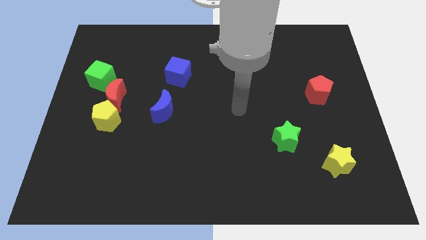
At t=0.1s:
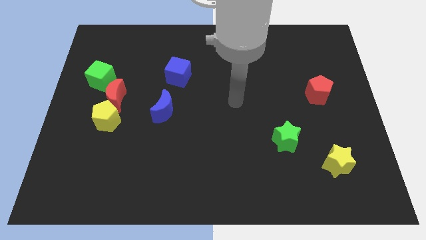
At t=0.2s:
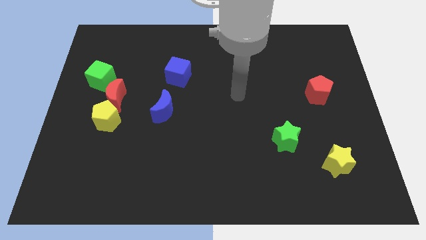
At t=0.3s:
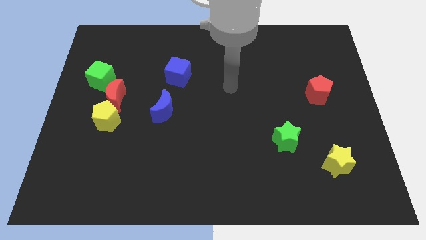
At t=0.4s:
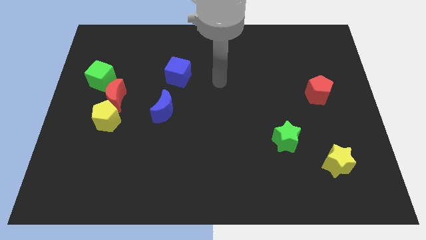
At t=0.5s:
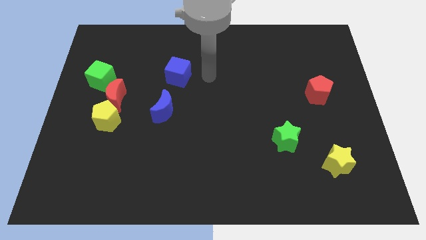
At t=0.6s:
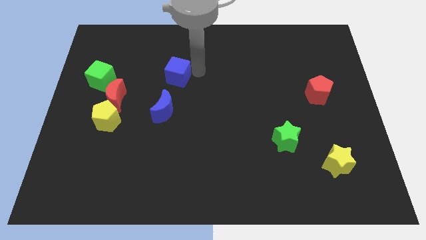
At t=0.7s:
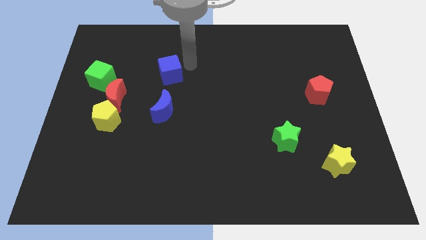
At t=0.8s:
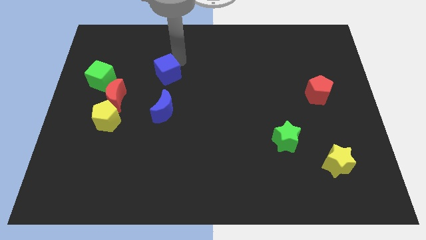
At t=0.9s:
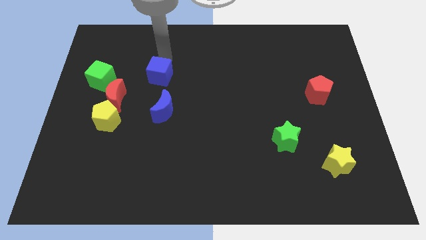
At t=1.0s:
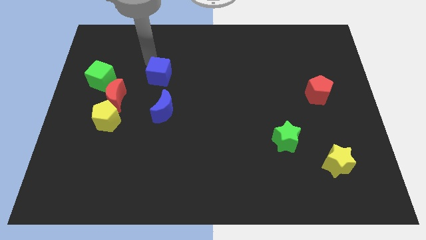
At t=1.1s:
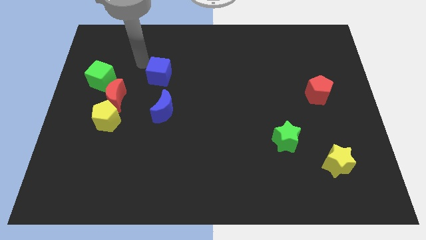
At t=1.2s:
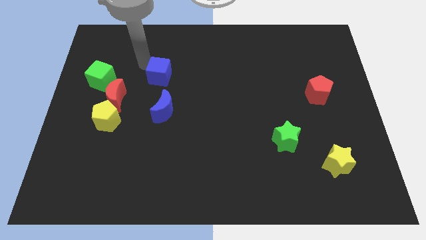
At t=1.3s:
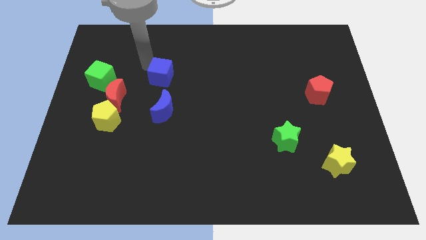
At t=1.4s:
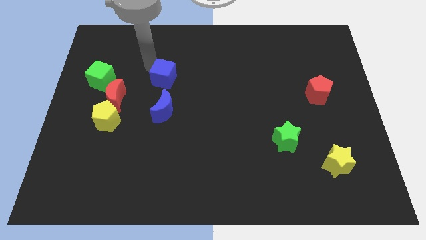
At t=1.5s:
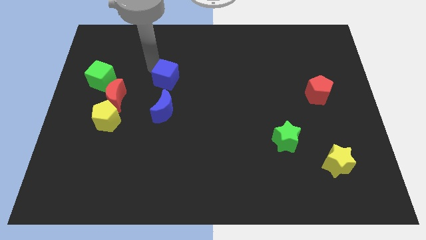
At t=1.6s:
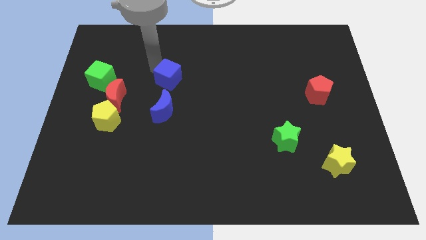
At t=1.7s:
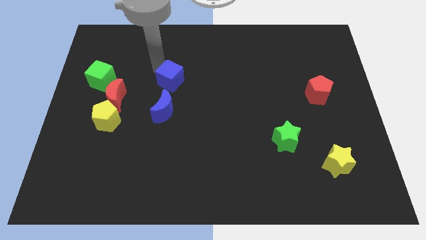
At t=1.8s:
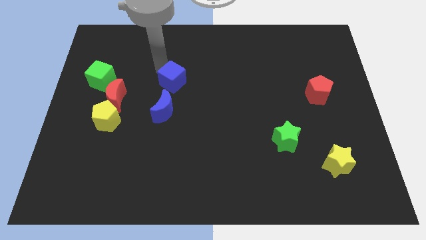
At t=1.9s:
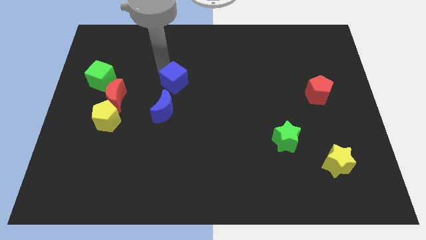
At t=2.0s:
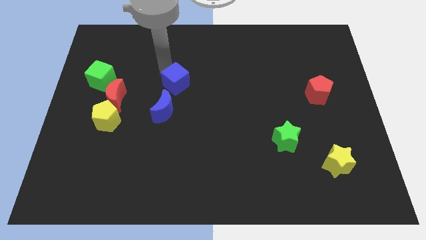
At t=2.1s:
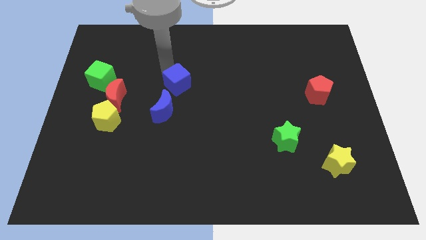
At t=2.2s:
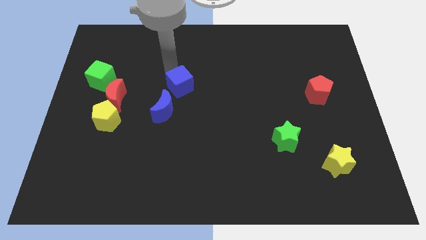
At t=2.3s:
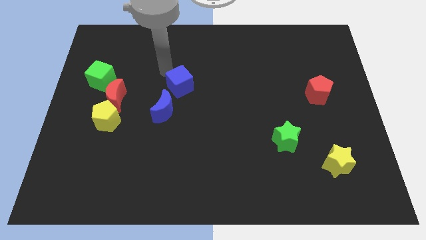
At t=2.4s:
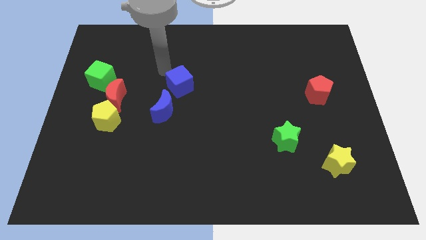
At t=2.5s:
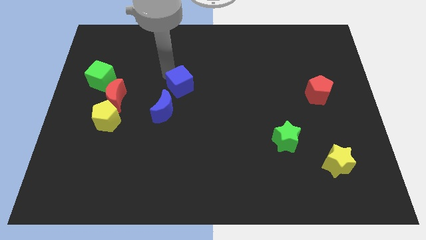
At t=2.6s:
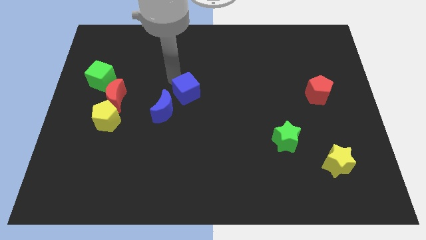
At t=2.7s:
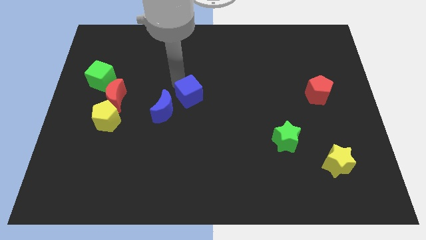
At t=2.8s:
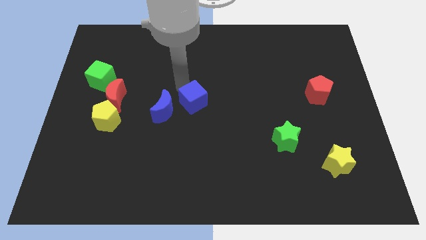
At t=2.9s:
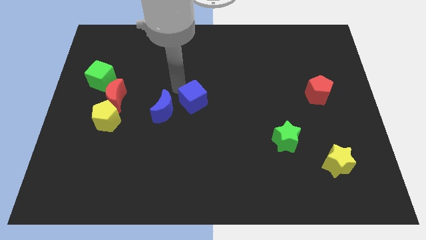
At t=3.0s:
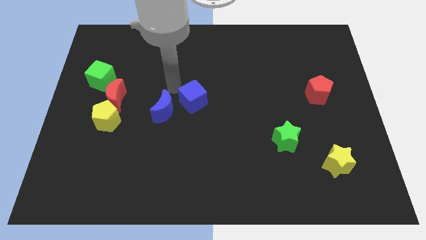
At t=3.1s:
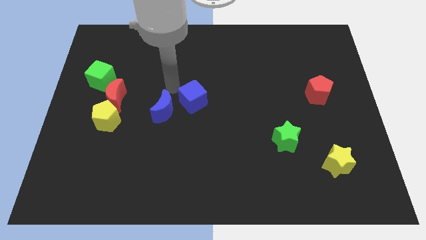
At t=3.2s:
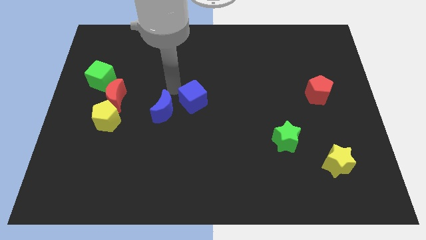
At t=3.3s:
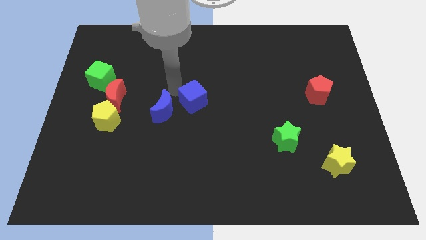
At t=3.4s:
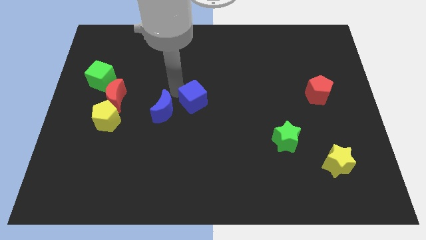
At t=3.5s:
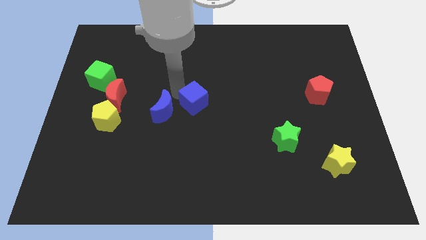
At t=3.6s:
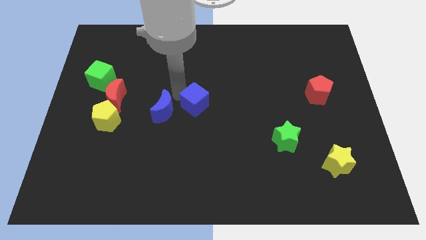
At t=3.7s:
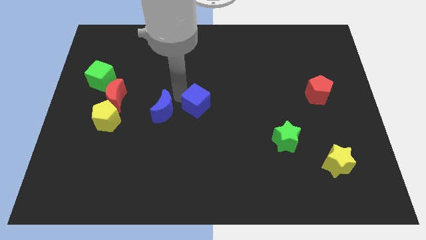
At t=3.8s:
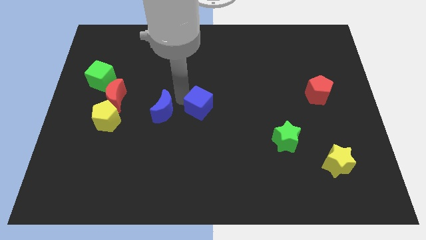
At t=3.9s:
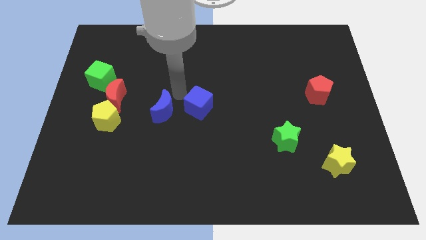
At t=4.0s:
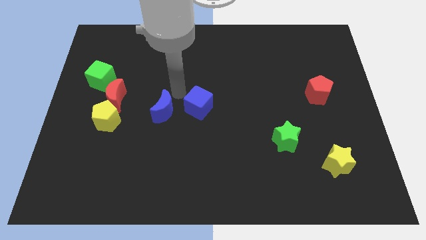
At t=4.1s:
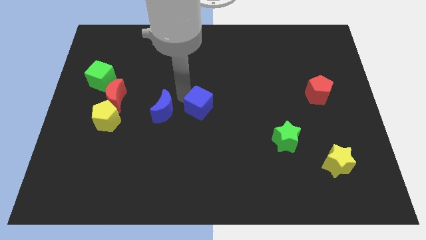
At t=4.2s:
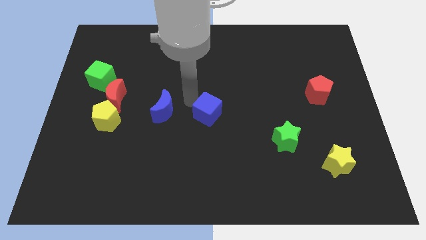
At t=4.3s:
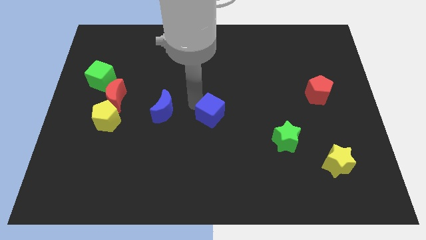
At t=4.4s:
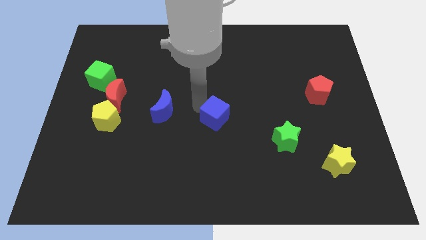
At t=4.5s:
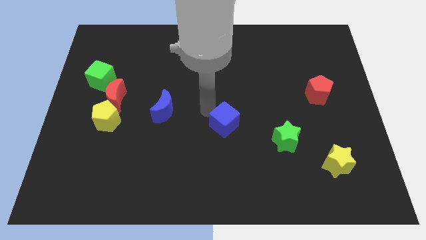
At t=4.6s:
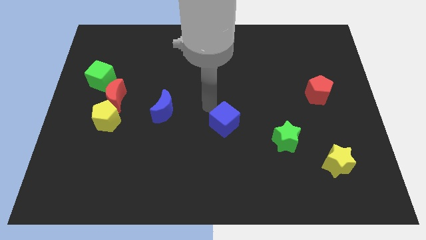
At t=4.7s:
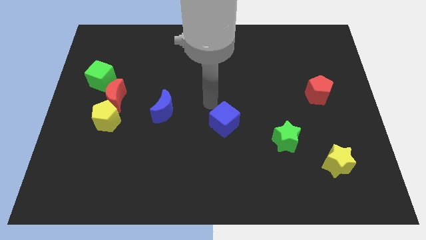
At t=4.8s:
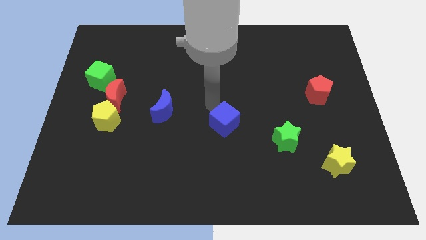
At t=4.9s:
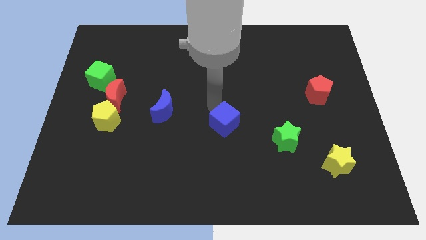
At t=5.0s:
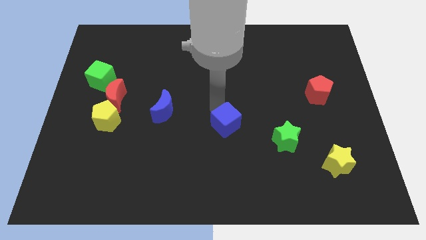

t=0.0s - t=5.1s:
push the blue cube left of the green star

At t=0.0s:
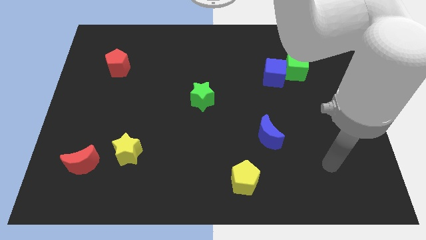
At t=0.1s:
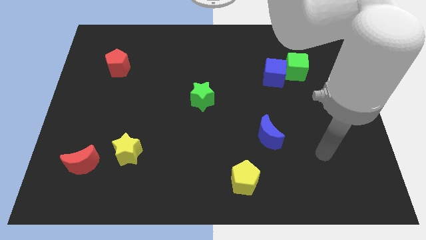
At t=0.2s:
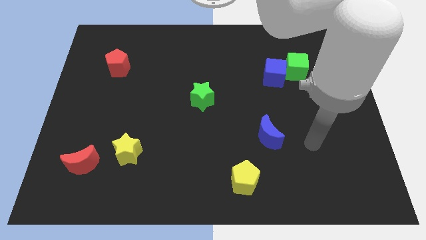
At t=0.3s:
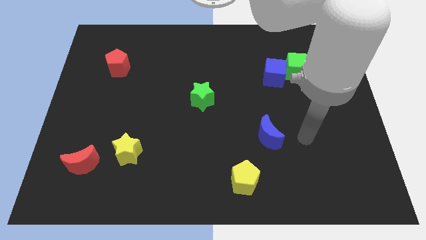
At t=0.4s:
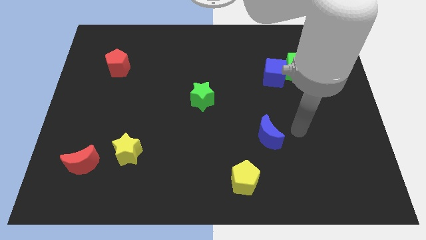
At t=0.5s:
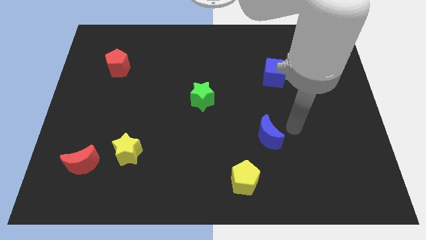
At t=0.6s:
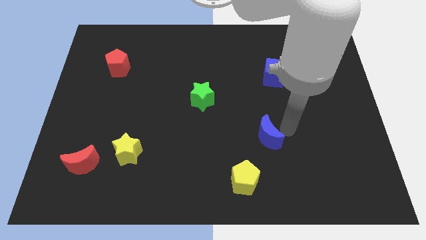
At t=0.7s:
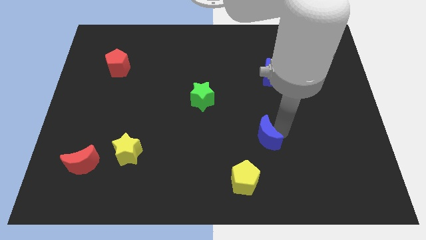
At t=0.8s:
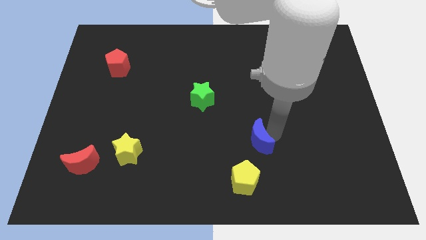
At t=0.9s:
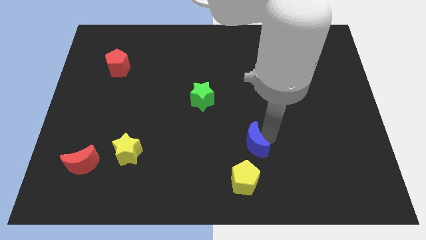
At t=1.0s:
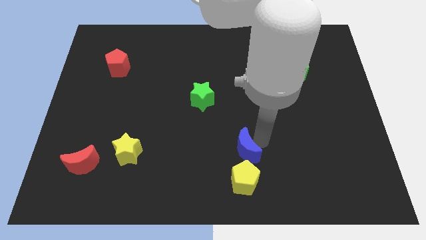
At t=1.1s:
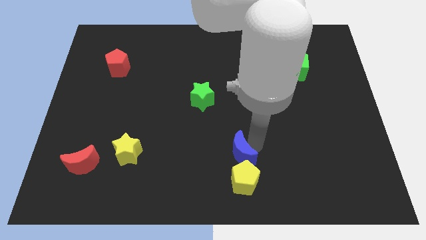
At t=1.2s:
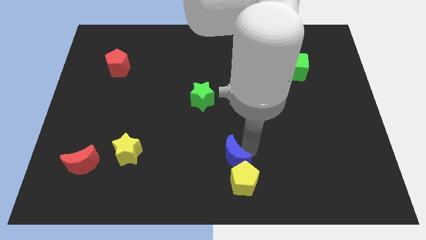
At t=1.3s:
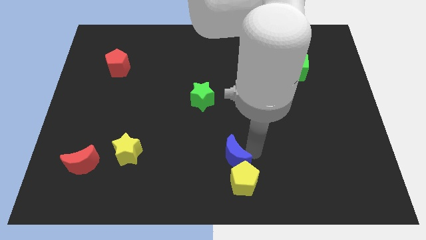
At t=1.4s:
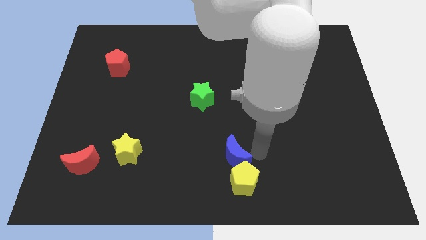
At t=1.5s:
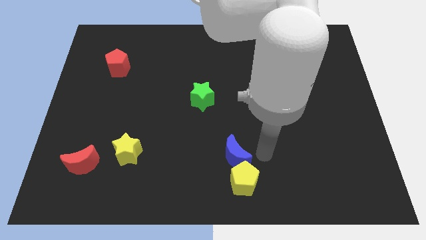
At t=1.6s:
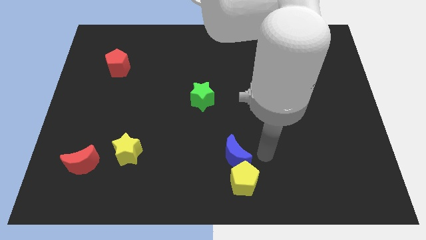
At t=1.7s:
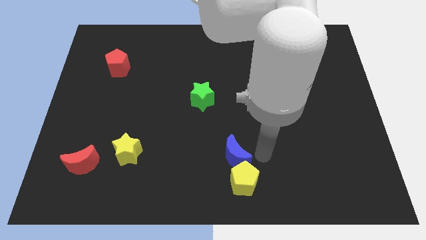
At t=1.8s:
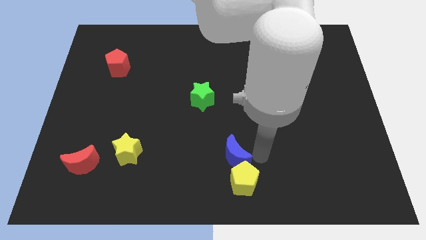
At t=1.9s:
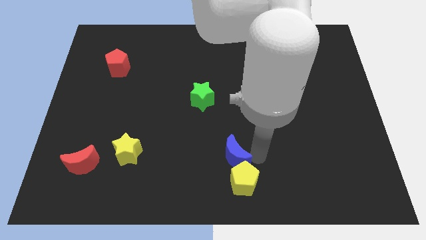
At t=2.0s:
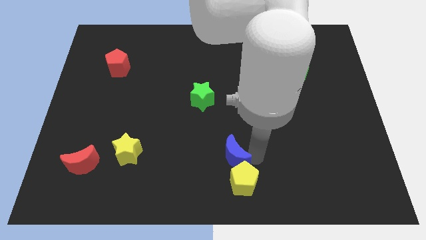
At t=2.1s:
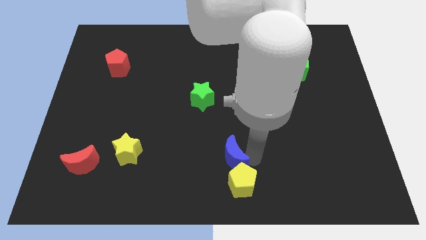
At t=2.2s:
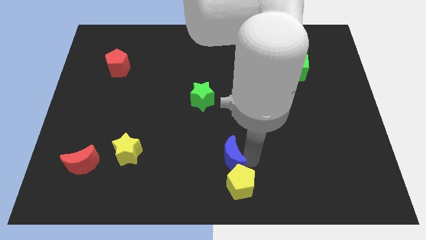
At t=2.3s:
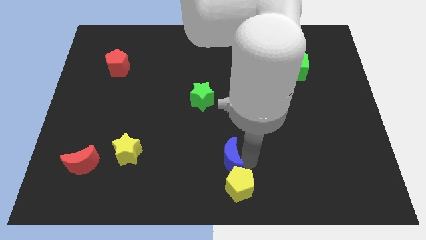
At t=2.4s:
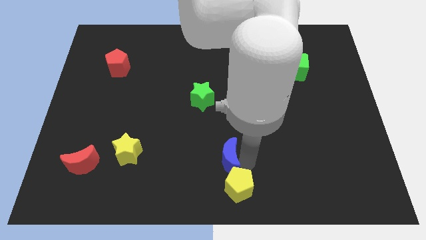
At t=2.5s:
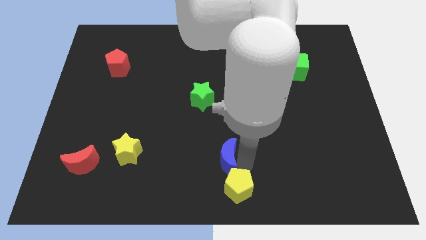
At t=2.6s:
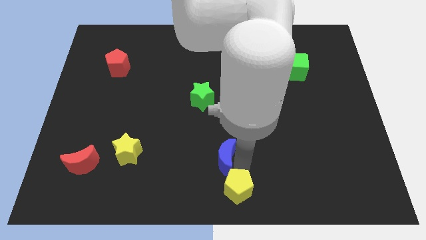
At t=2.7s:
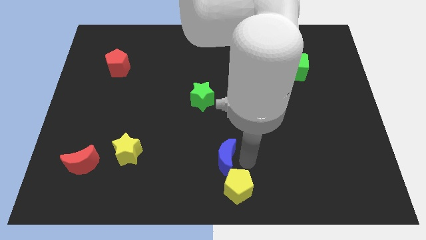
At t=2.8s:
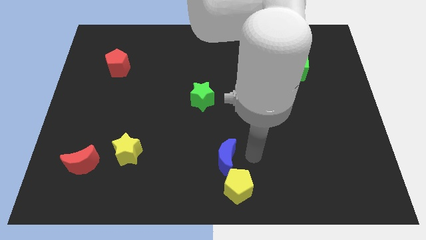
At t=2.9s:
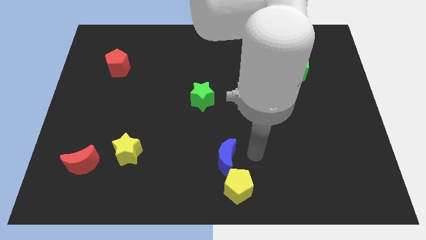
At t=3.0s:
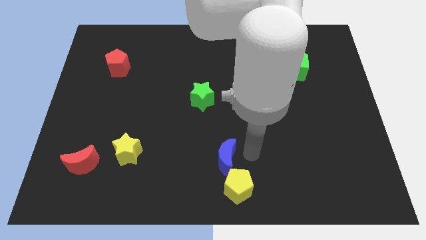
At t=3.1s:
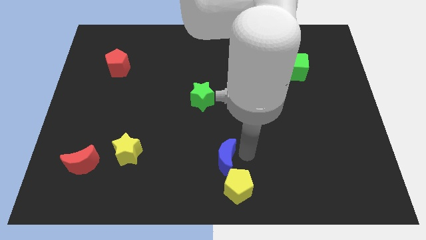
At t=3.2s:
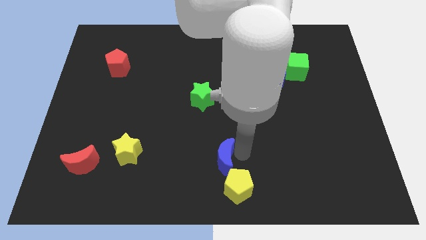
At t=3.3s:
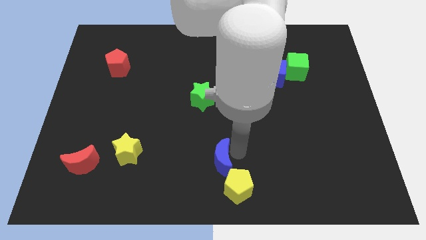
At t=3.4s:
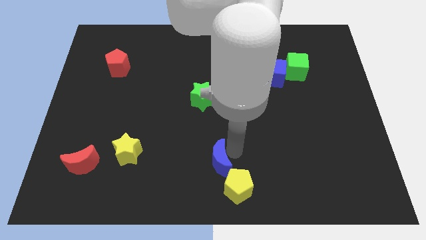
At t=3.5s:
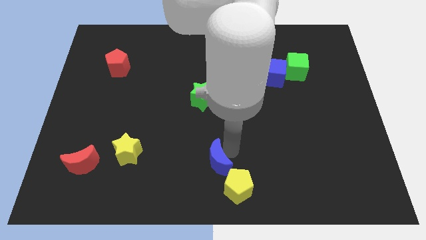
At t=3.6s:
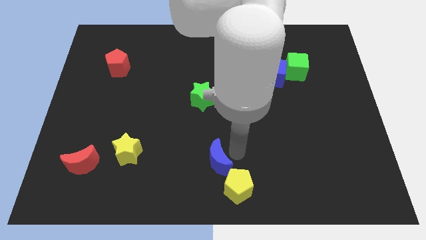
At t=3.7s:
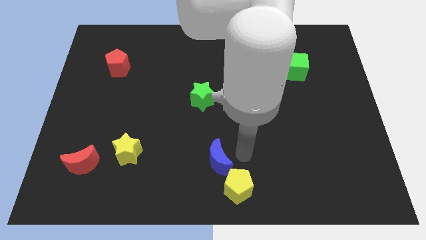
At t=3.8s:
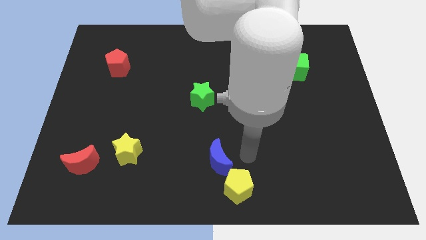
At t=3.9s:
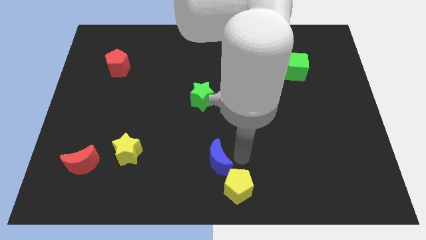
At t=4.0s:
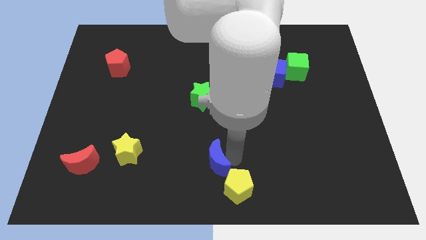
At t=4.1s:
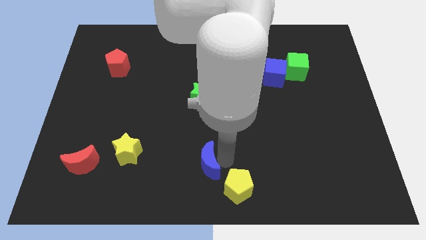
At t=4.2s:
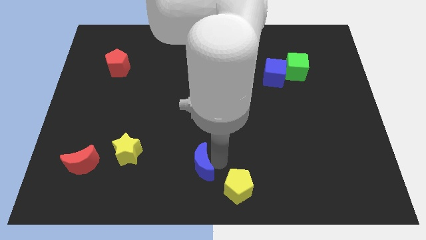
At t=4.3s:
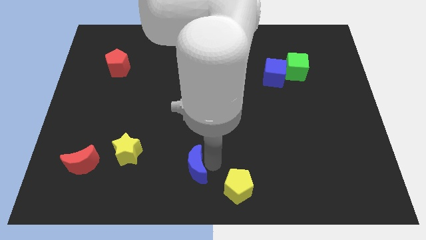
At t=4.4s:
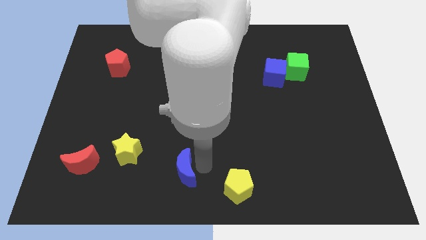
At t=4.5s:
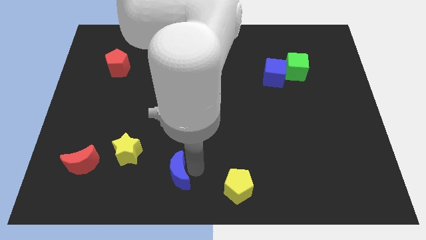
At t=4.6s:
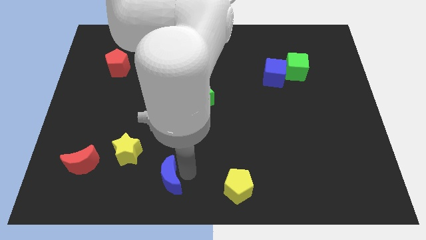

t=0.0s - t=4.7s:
push the blue moon to the bottom right of the yellow star
